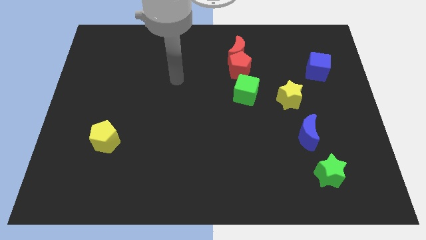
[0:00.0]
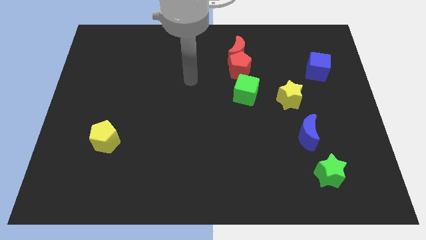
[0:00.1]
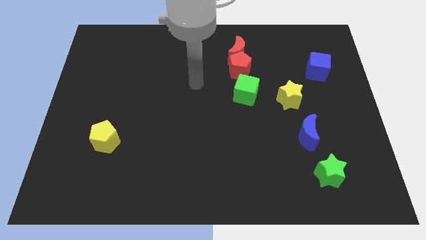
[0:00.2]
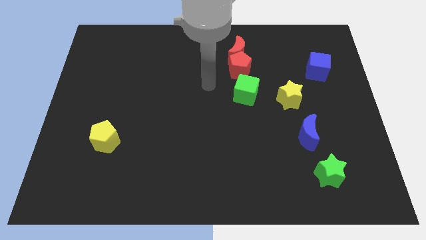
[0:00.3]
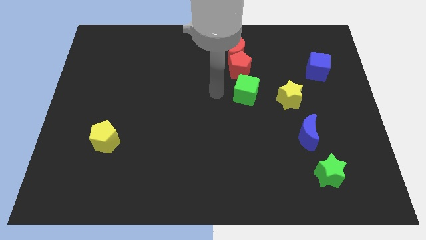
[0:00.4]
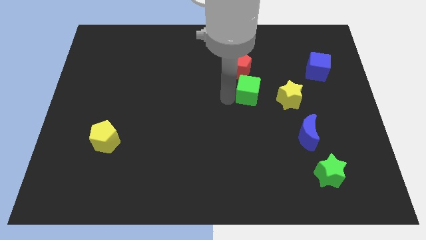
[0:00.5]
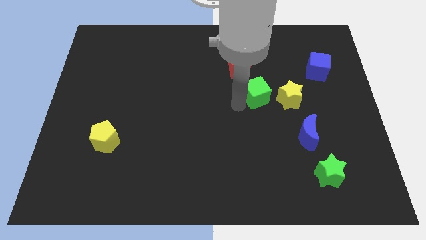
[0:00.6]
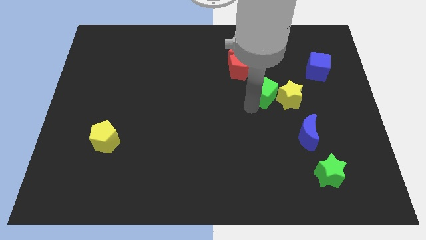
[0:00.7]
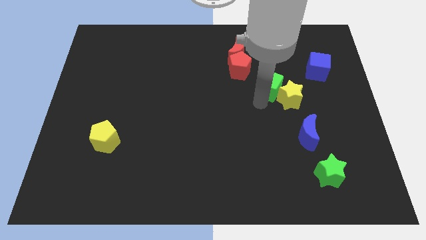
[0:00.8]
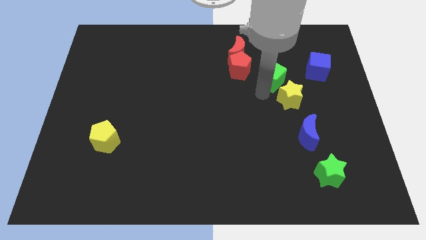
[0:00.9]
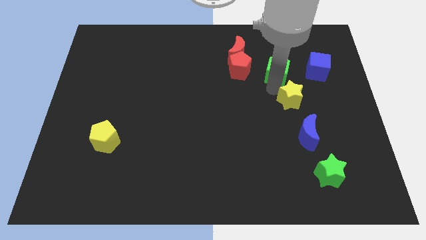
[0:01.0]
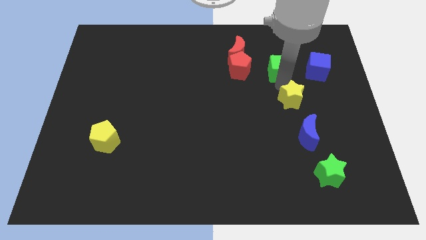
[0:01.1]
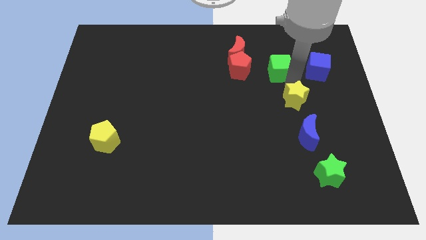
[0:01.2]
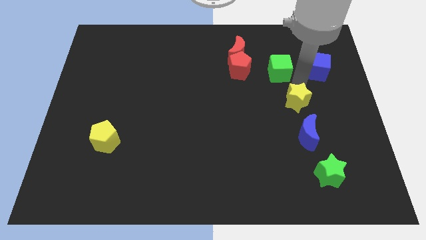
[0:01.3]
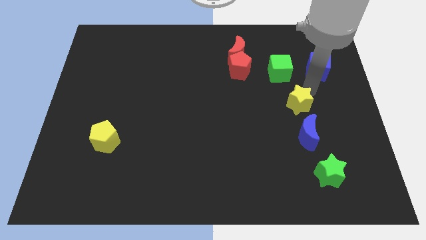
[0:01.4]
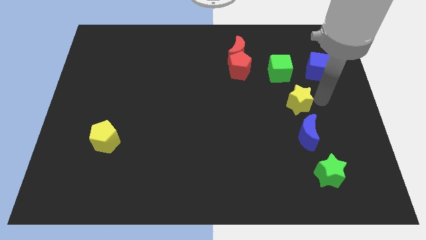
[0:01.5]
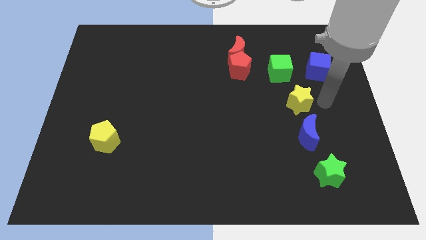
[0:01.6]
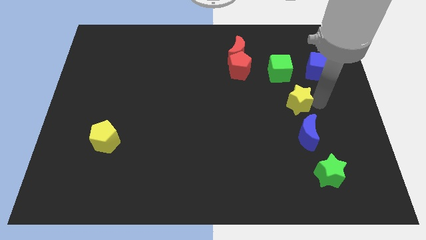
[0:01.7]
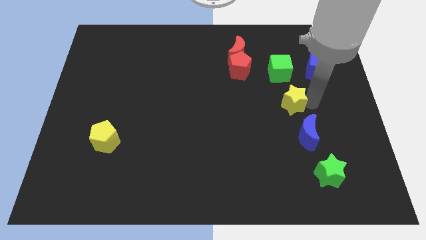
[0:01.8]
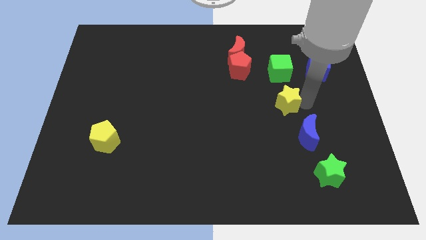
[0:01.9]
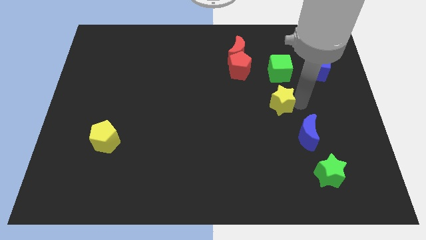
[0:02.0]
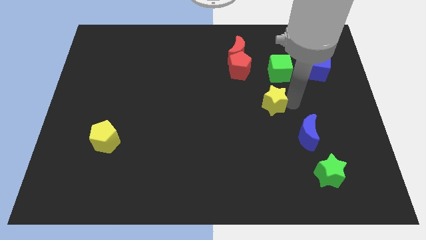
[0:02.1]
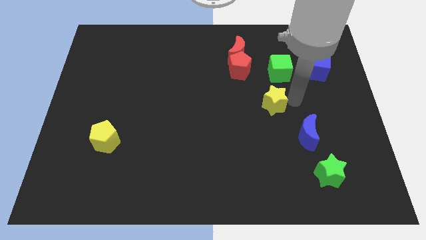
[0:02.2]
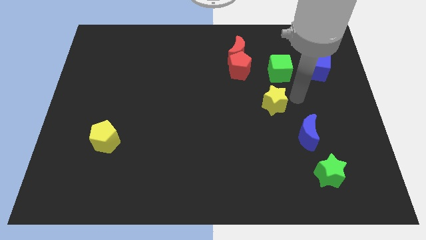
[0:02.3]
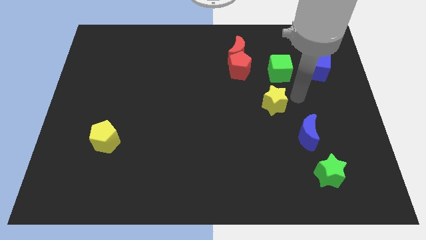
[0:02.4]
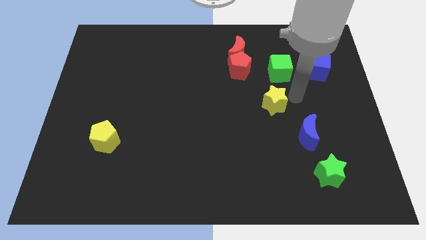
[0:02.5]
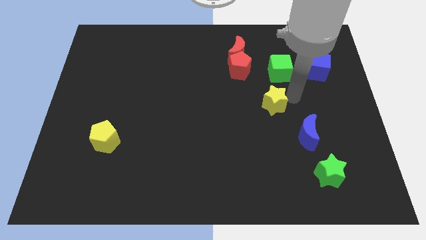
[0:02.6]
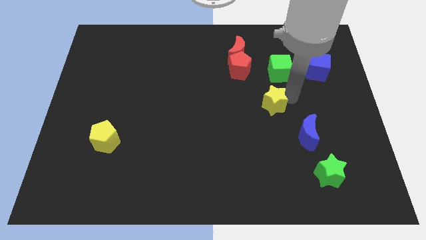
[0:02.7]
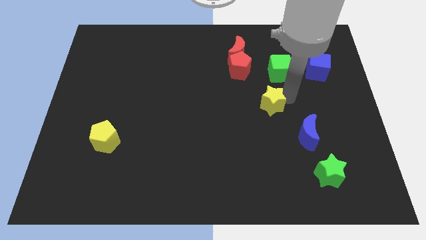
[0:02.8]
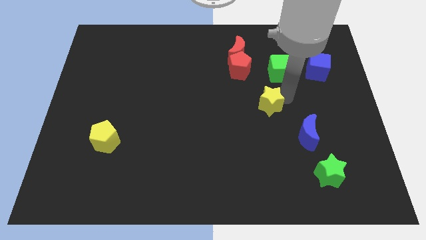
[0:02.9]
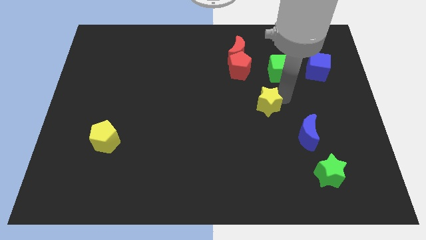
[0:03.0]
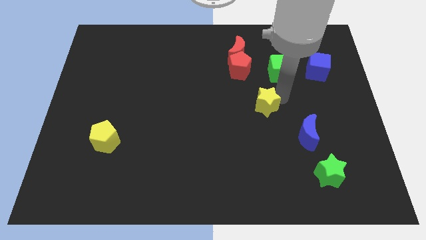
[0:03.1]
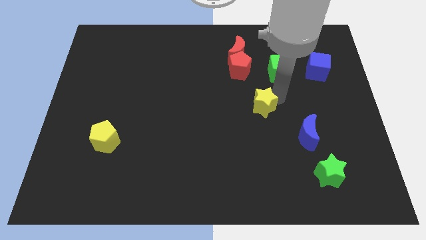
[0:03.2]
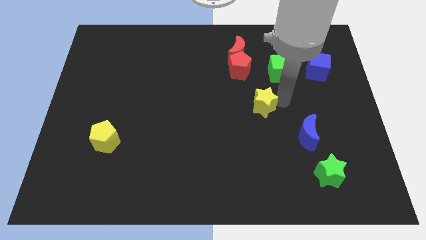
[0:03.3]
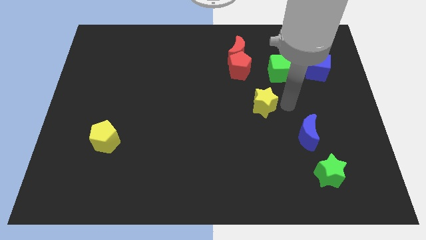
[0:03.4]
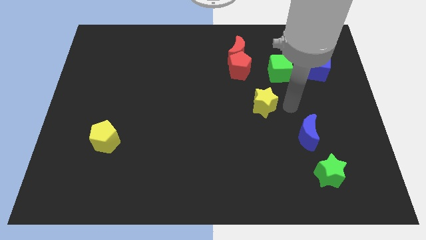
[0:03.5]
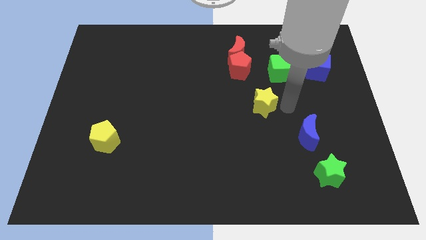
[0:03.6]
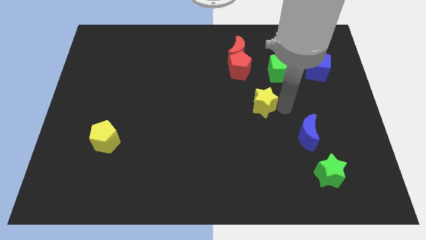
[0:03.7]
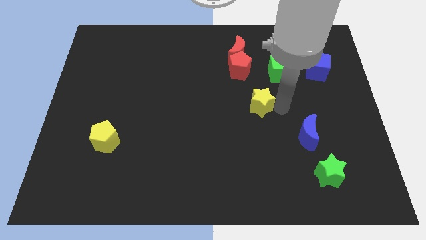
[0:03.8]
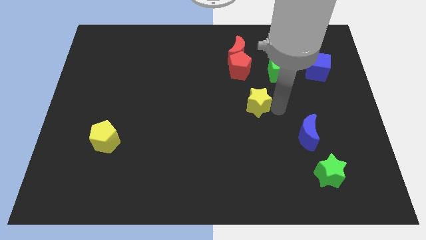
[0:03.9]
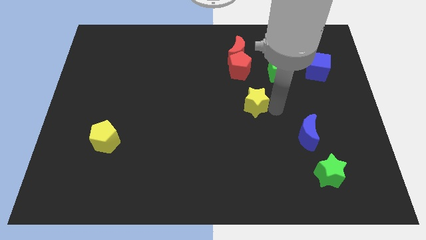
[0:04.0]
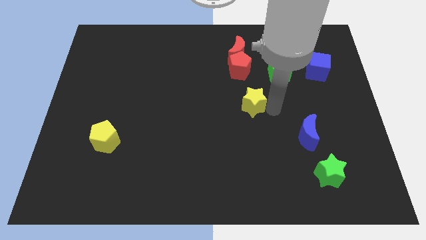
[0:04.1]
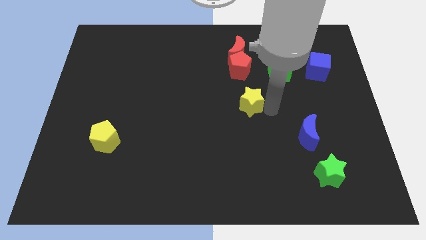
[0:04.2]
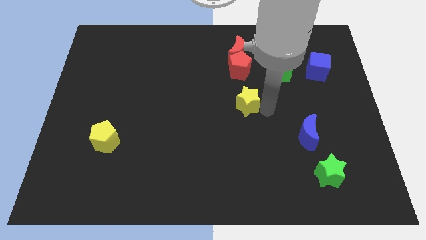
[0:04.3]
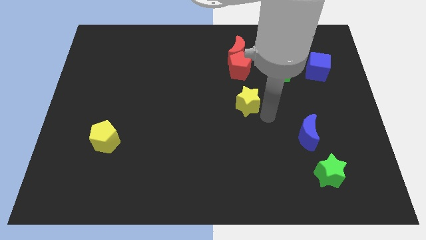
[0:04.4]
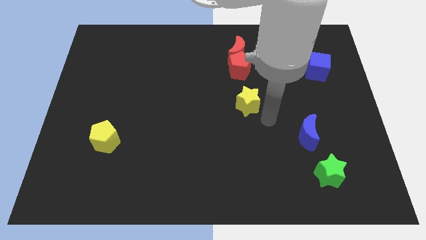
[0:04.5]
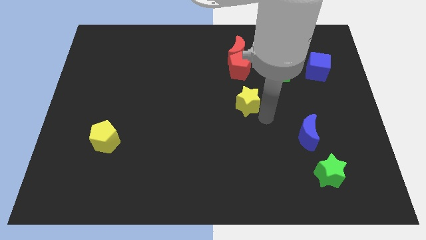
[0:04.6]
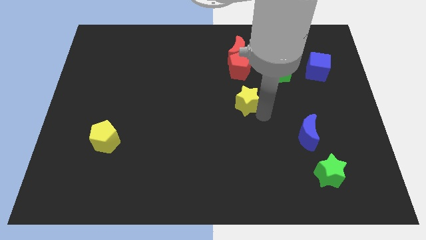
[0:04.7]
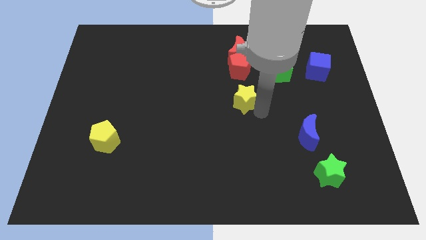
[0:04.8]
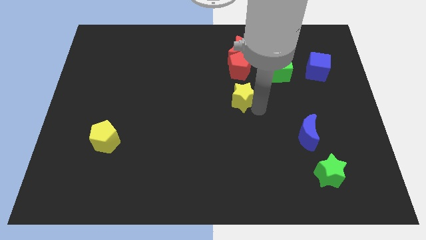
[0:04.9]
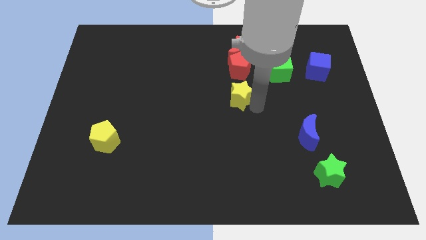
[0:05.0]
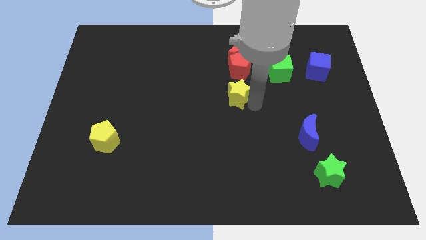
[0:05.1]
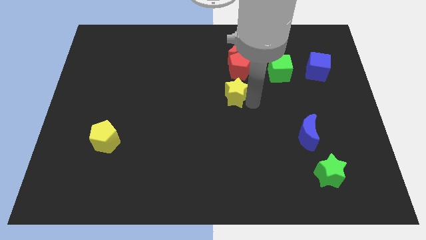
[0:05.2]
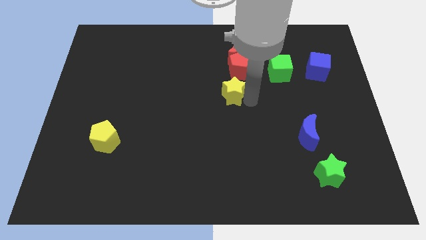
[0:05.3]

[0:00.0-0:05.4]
put the yellow star to the bottom left side of the red pentagon

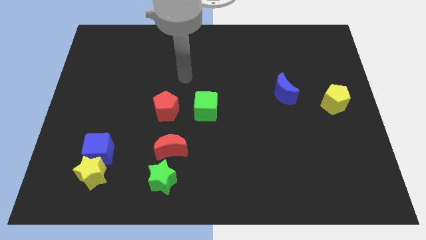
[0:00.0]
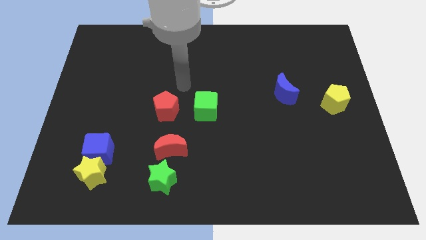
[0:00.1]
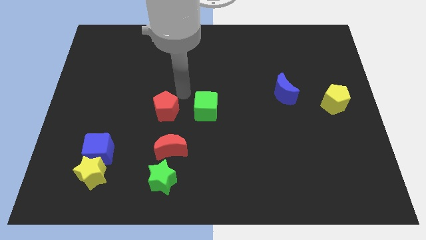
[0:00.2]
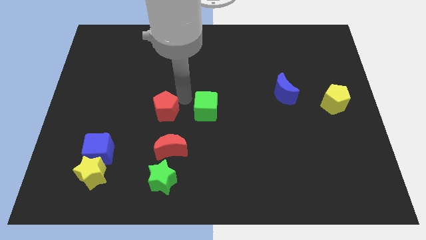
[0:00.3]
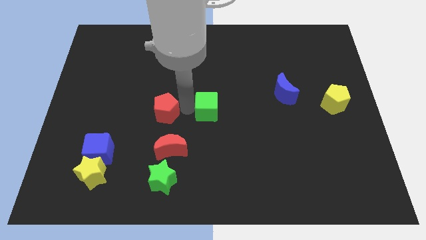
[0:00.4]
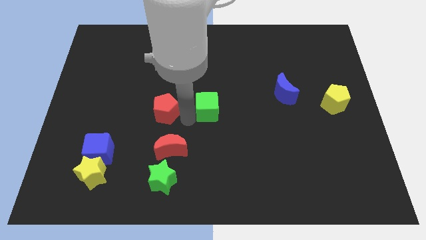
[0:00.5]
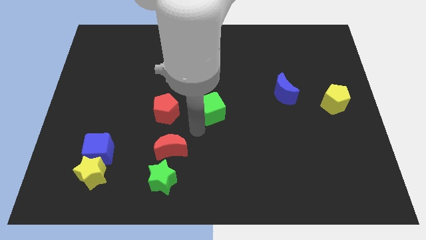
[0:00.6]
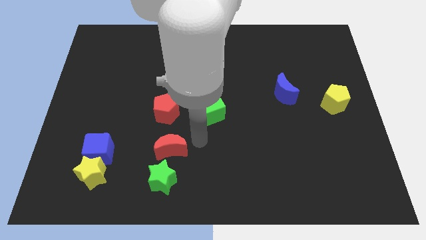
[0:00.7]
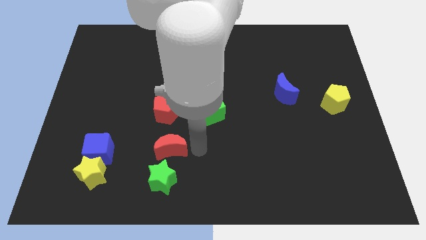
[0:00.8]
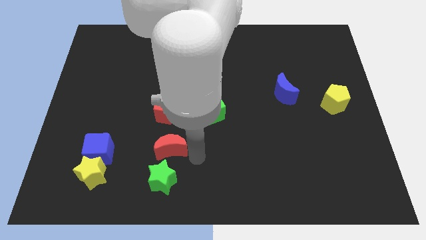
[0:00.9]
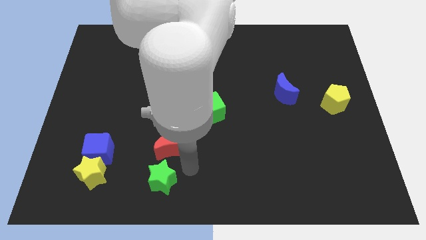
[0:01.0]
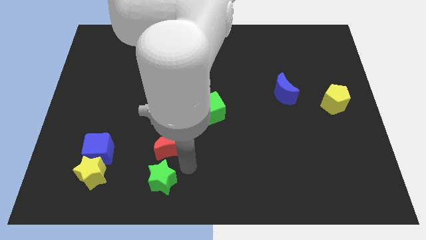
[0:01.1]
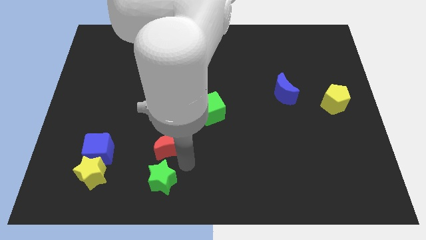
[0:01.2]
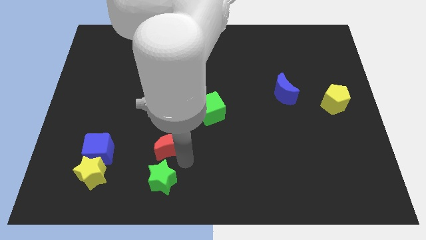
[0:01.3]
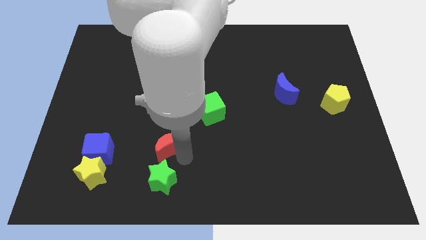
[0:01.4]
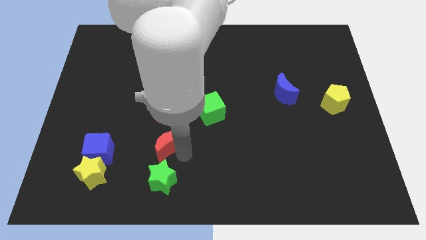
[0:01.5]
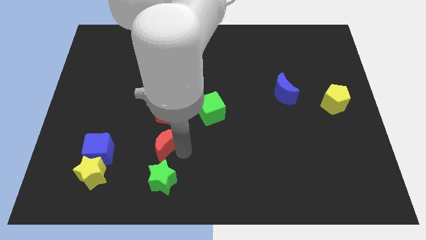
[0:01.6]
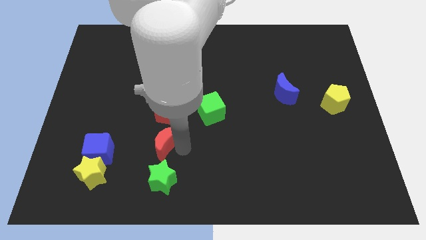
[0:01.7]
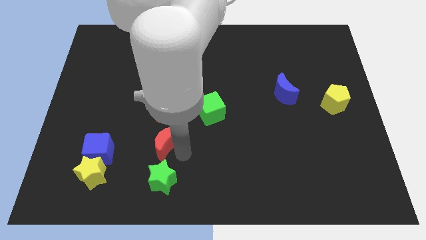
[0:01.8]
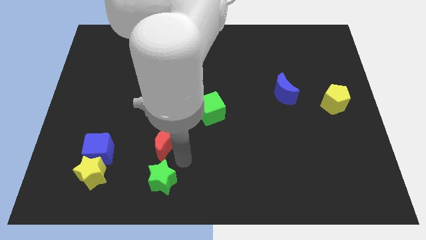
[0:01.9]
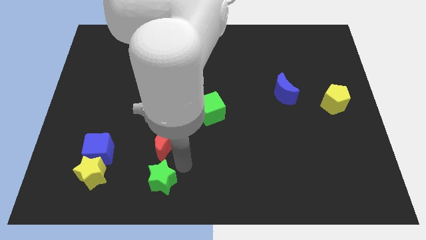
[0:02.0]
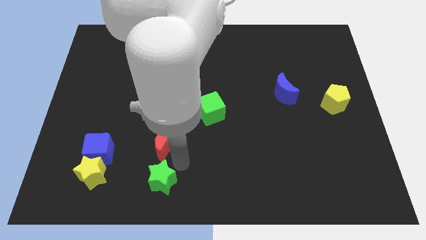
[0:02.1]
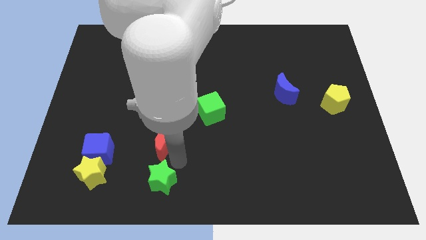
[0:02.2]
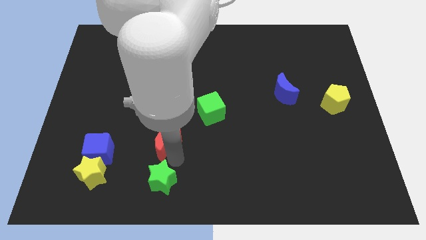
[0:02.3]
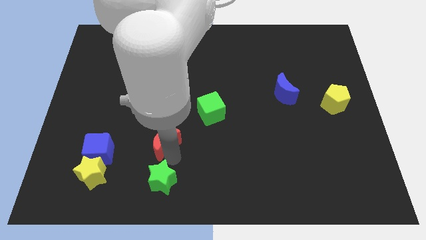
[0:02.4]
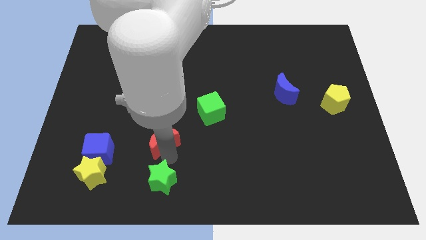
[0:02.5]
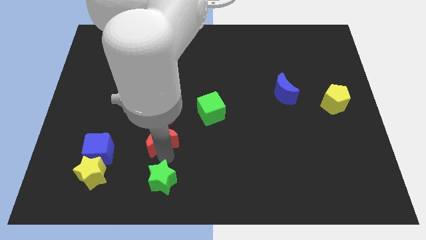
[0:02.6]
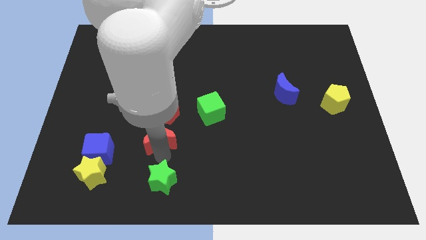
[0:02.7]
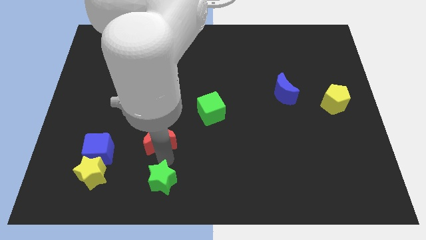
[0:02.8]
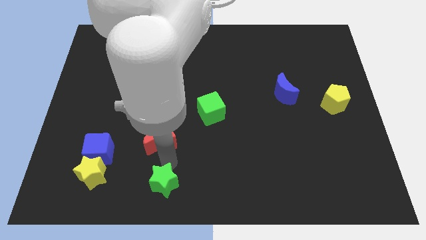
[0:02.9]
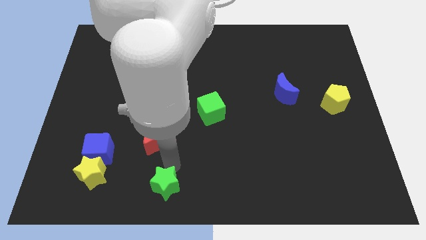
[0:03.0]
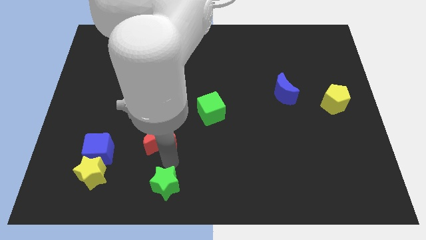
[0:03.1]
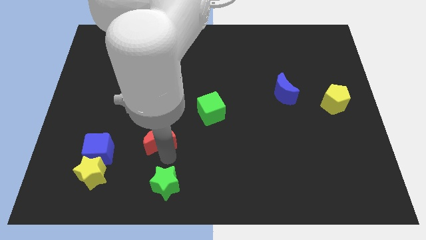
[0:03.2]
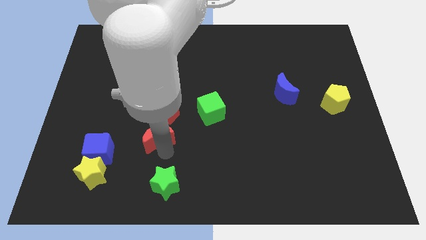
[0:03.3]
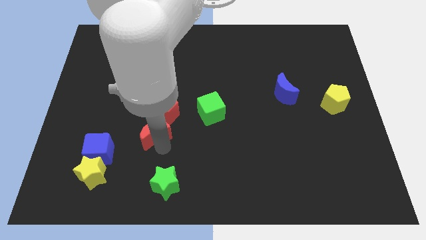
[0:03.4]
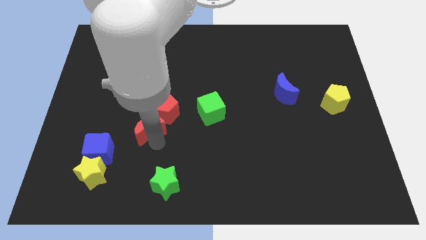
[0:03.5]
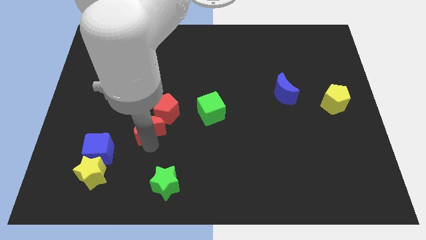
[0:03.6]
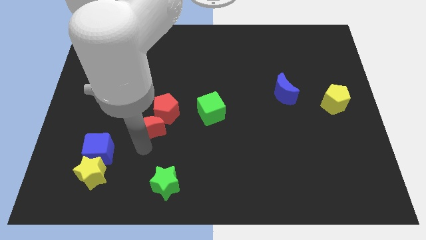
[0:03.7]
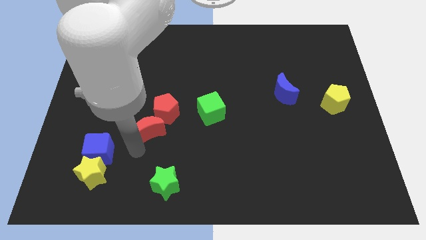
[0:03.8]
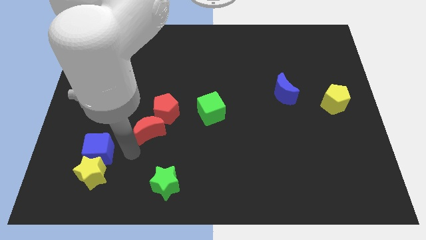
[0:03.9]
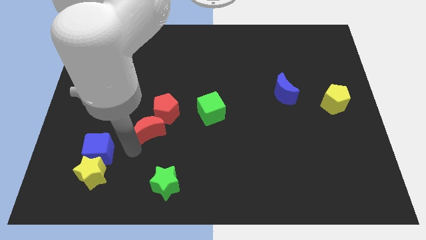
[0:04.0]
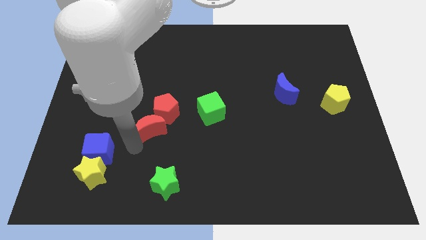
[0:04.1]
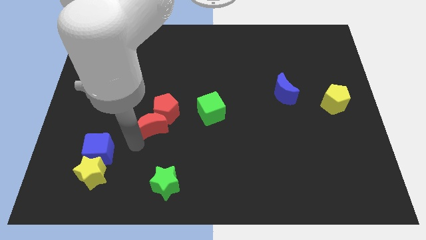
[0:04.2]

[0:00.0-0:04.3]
move the red moon left of the green cube
